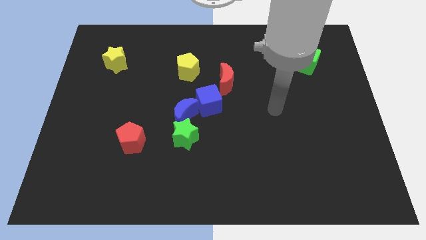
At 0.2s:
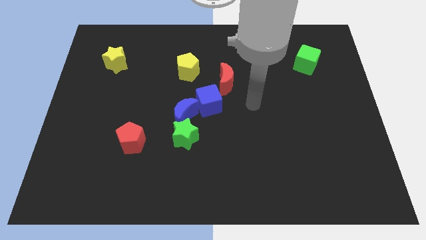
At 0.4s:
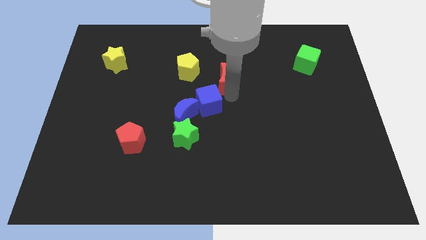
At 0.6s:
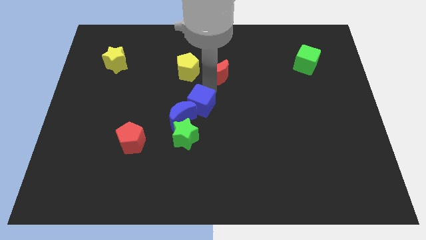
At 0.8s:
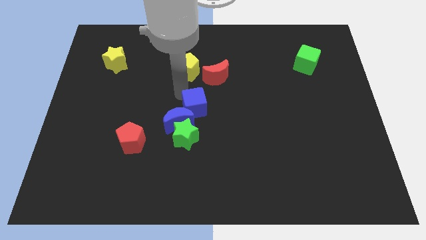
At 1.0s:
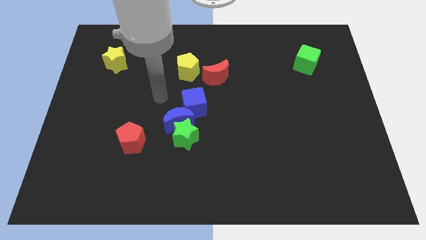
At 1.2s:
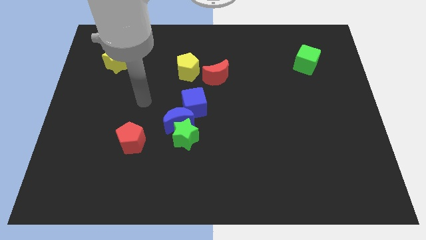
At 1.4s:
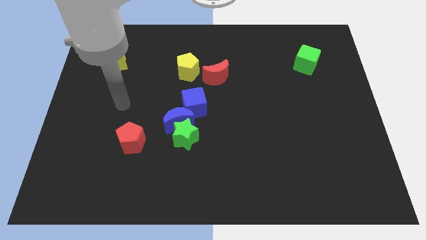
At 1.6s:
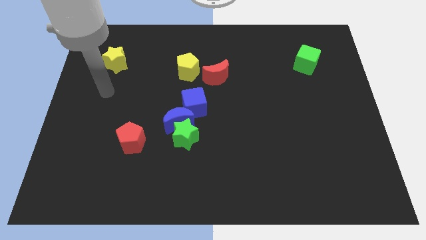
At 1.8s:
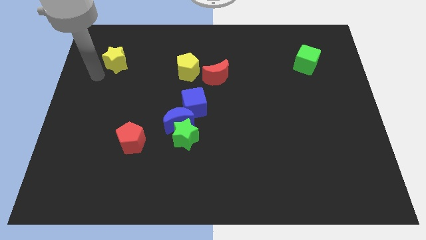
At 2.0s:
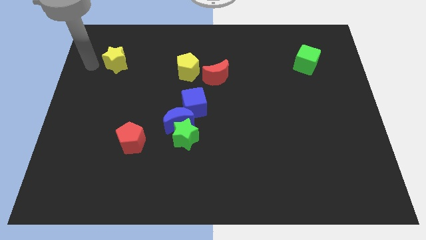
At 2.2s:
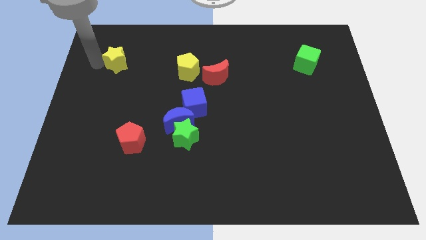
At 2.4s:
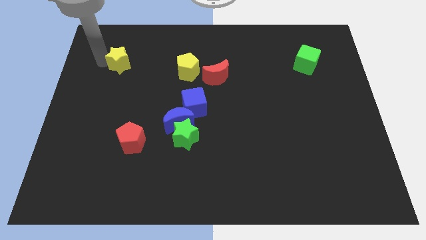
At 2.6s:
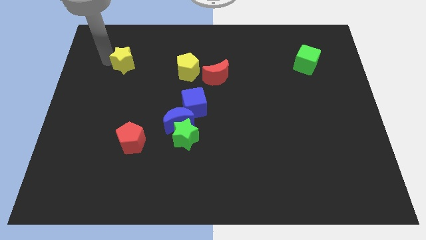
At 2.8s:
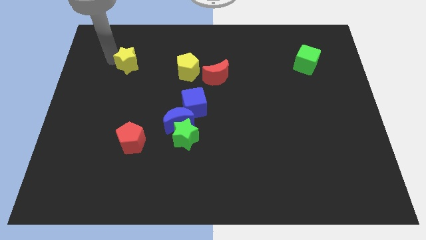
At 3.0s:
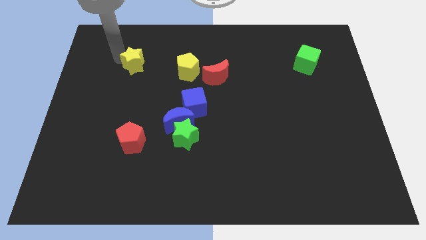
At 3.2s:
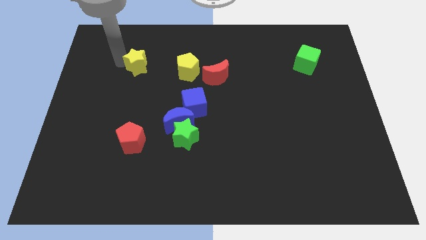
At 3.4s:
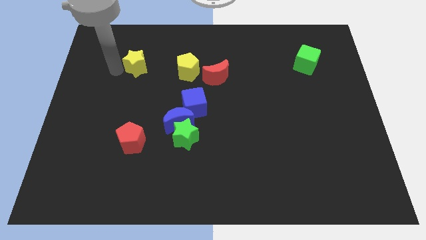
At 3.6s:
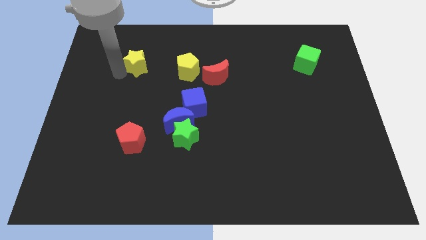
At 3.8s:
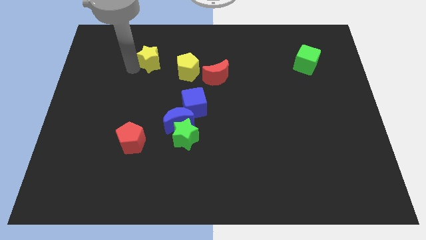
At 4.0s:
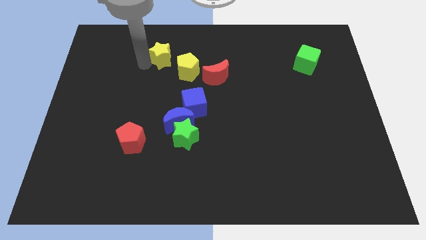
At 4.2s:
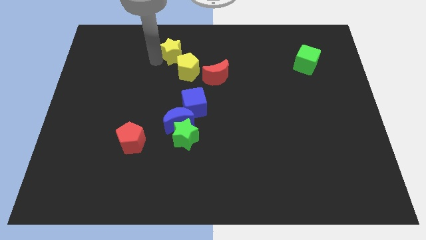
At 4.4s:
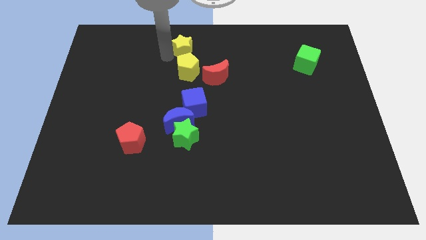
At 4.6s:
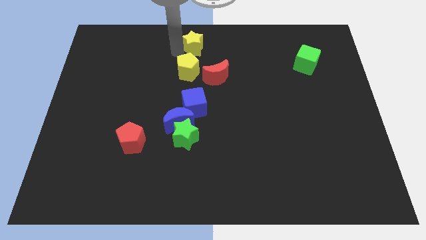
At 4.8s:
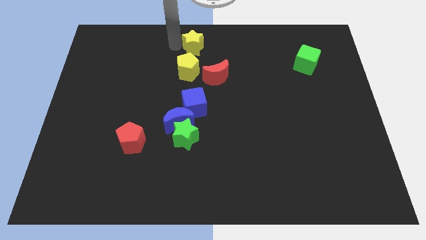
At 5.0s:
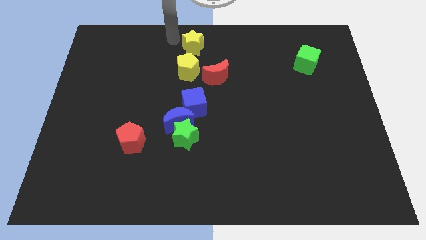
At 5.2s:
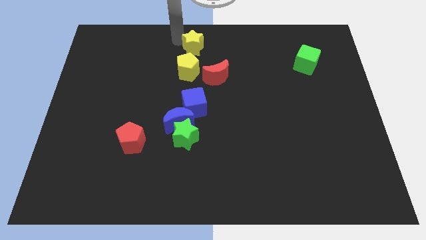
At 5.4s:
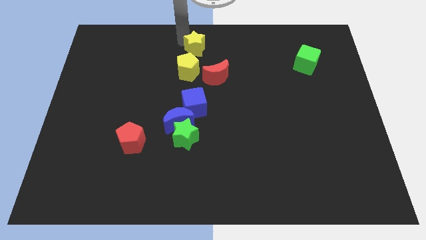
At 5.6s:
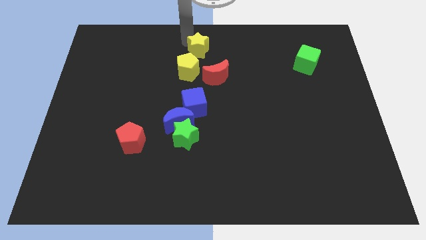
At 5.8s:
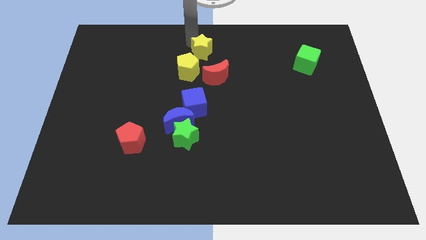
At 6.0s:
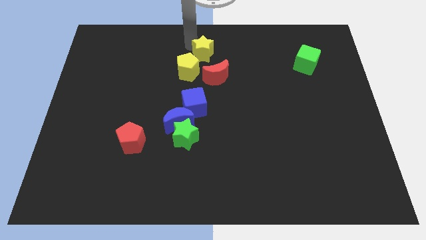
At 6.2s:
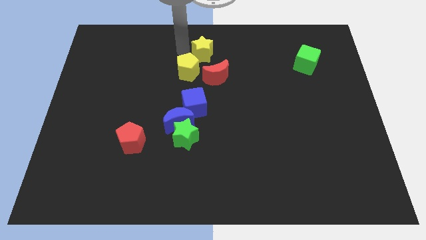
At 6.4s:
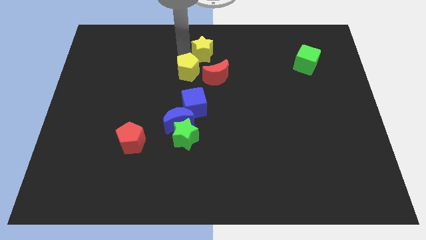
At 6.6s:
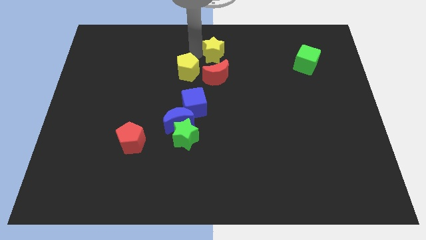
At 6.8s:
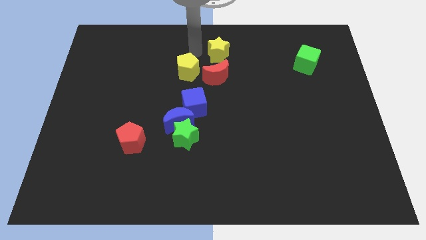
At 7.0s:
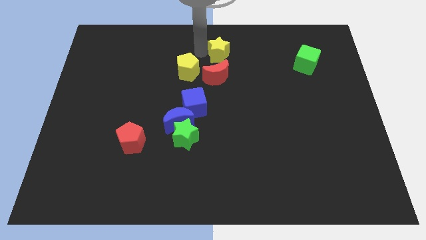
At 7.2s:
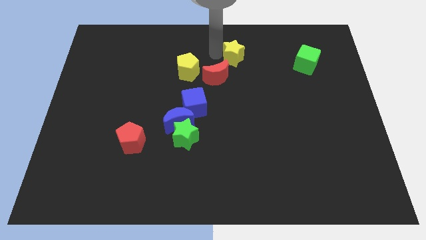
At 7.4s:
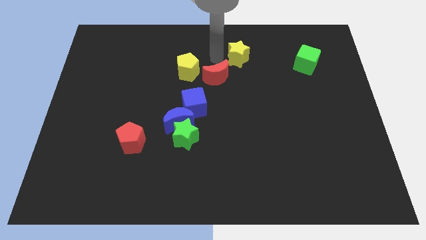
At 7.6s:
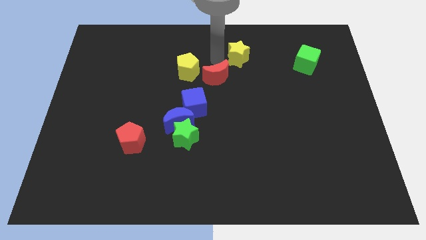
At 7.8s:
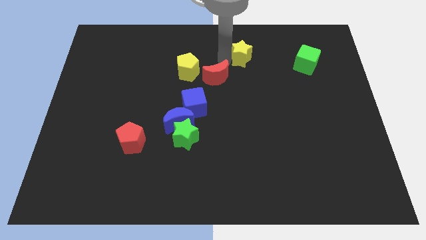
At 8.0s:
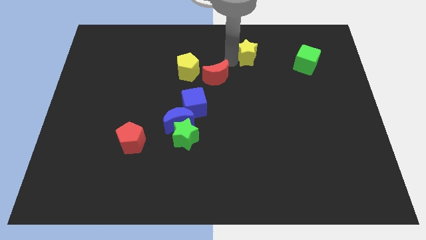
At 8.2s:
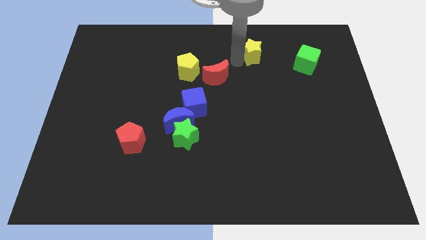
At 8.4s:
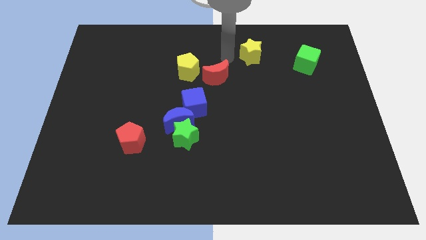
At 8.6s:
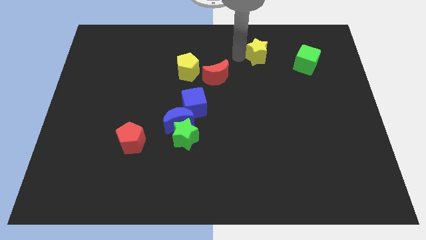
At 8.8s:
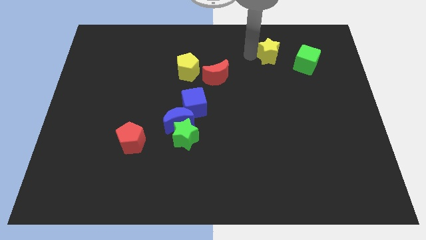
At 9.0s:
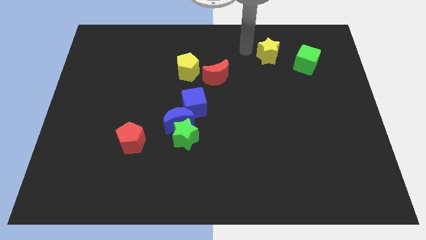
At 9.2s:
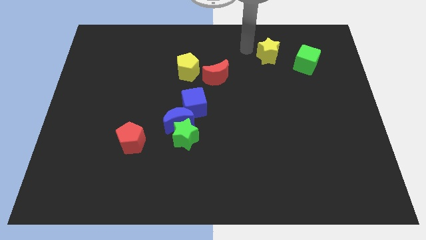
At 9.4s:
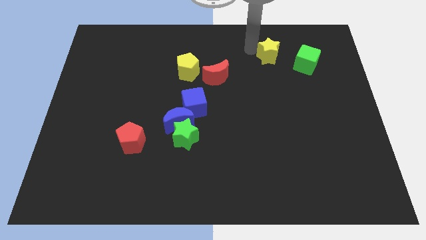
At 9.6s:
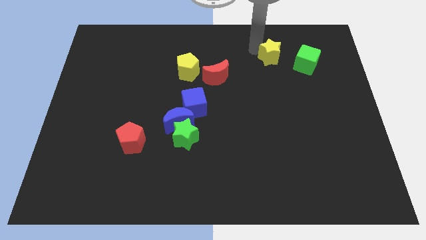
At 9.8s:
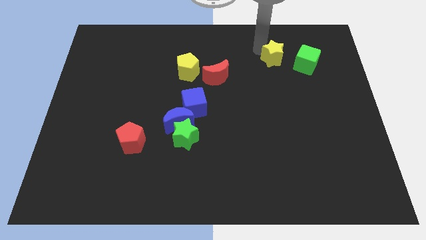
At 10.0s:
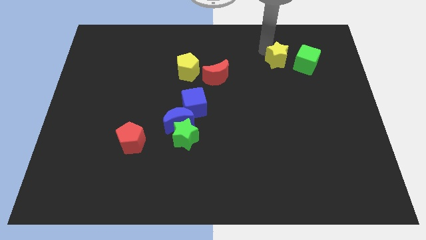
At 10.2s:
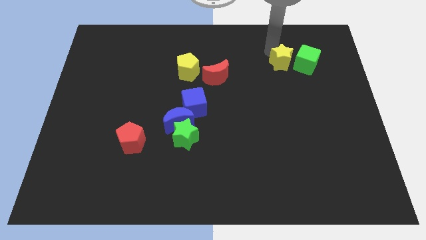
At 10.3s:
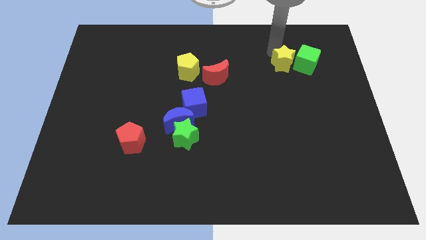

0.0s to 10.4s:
push the yellow star to the green cube

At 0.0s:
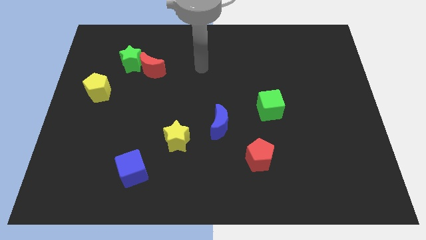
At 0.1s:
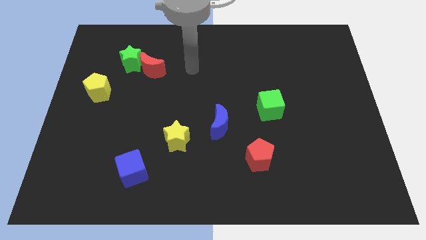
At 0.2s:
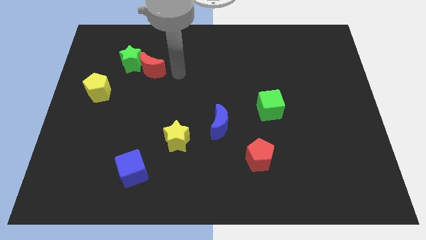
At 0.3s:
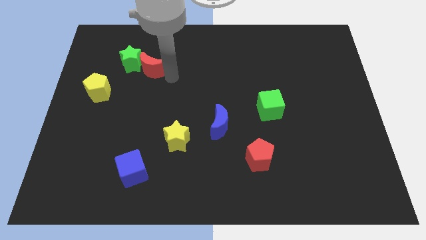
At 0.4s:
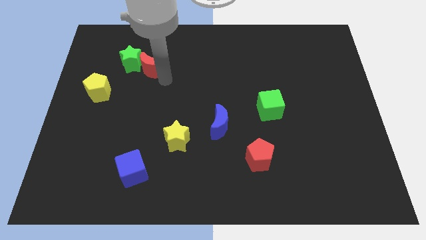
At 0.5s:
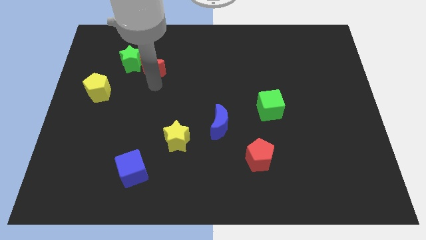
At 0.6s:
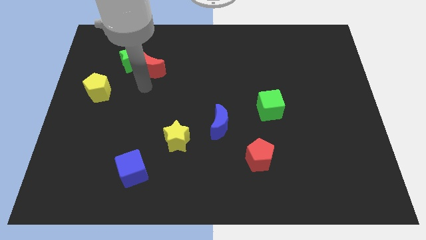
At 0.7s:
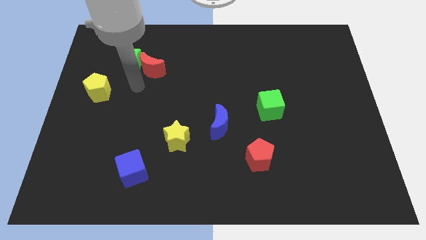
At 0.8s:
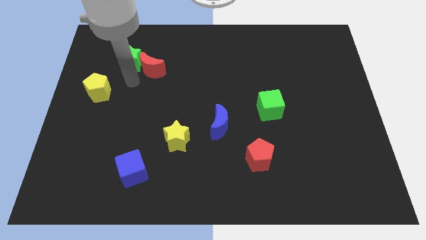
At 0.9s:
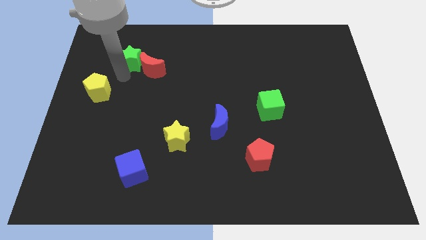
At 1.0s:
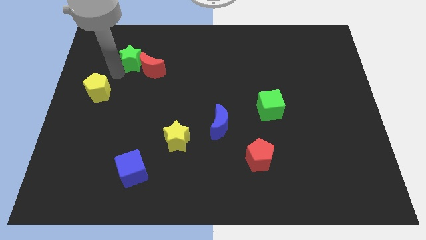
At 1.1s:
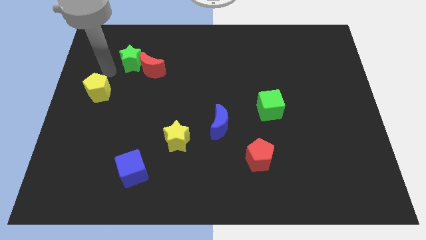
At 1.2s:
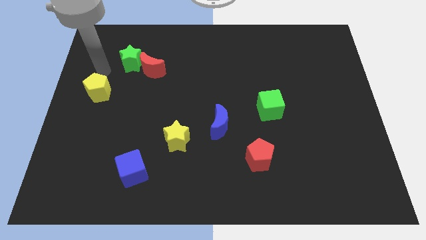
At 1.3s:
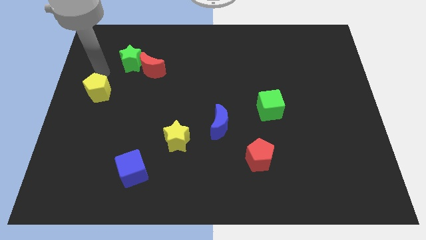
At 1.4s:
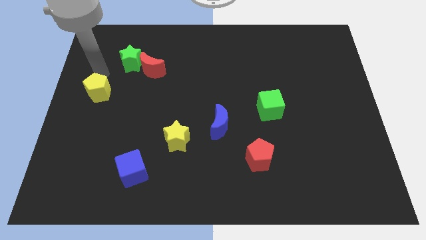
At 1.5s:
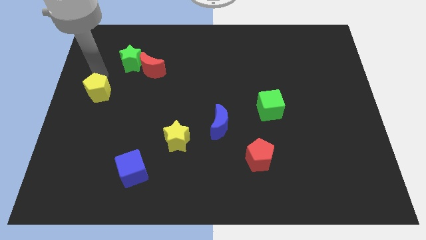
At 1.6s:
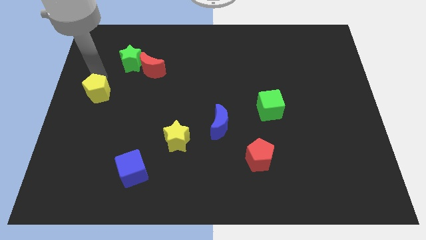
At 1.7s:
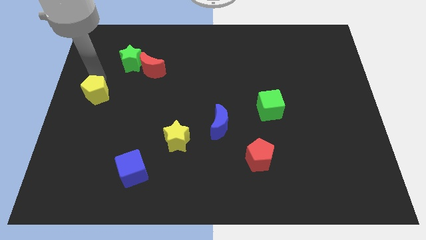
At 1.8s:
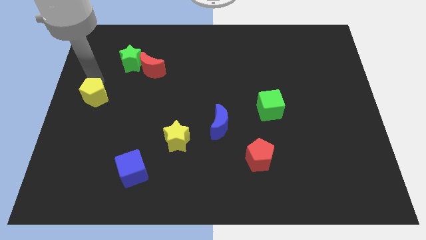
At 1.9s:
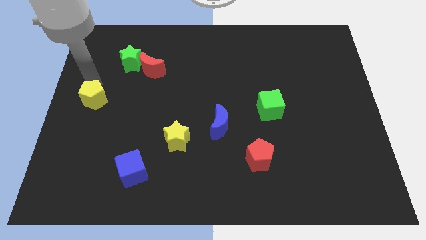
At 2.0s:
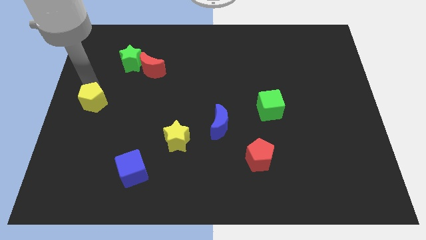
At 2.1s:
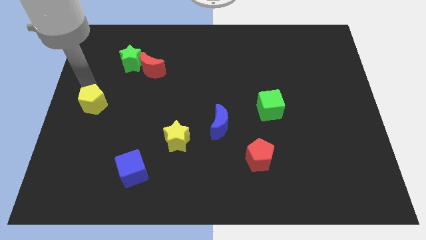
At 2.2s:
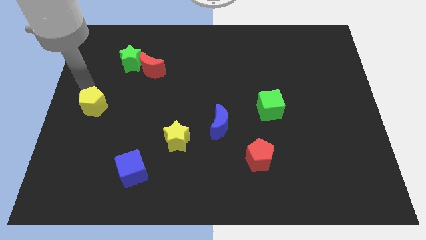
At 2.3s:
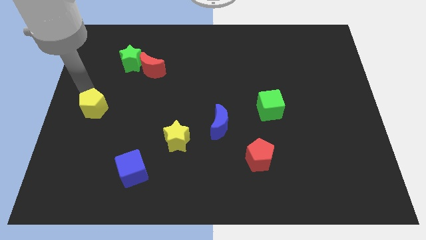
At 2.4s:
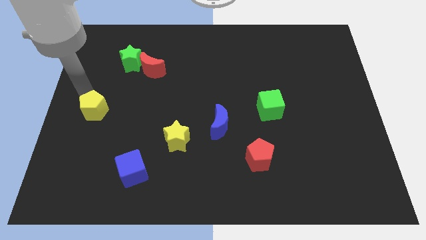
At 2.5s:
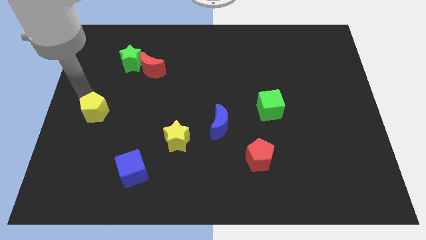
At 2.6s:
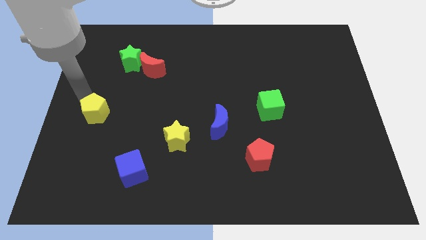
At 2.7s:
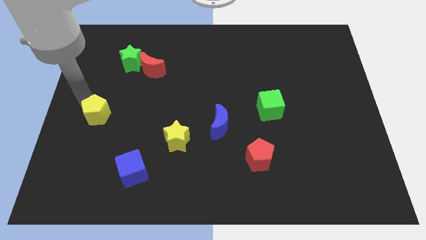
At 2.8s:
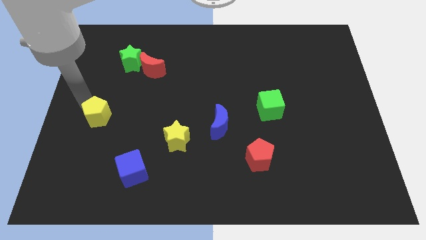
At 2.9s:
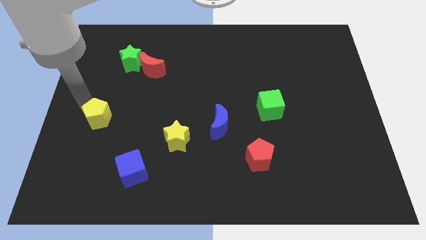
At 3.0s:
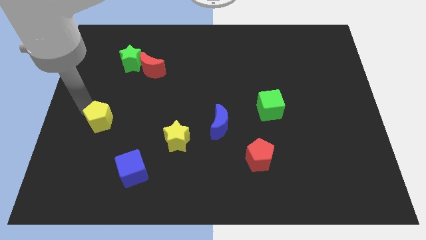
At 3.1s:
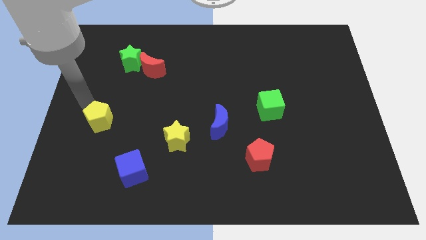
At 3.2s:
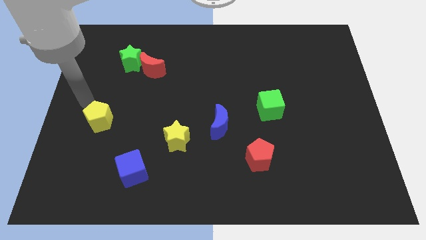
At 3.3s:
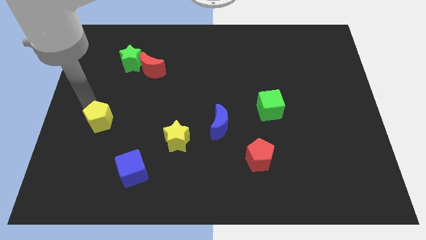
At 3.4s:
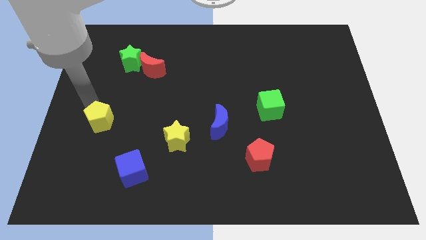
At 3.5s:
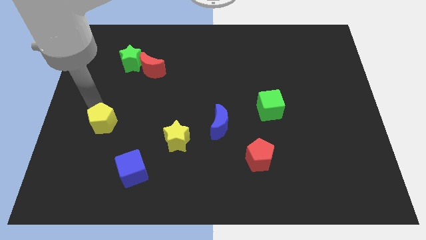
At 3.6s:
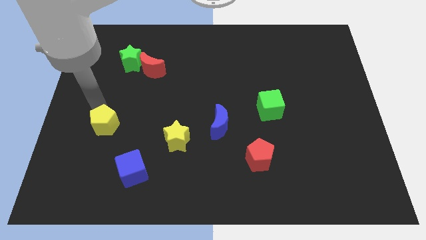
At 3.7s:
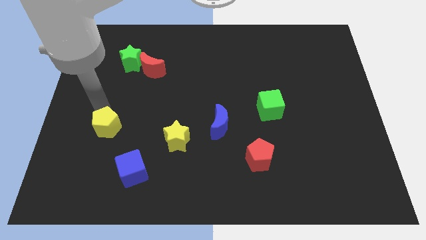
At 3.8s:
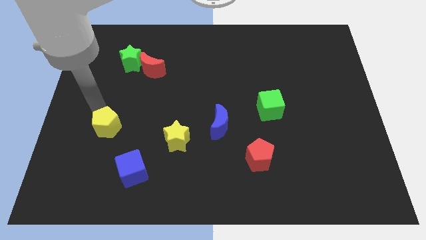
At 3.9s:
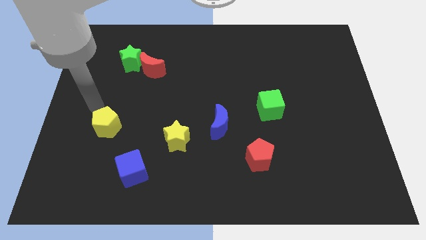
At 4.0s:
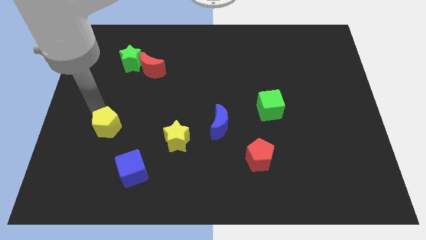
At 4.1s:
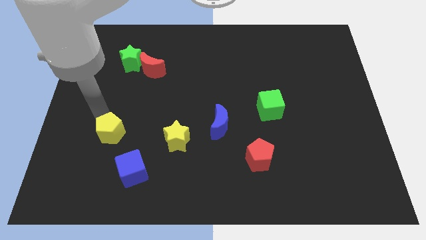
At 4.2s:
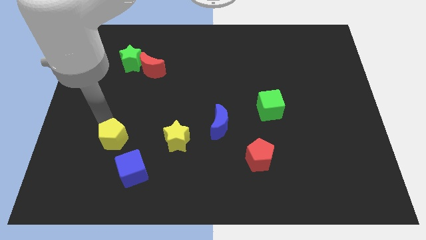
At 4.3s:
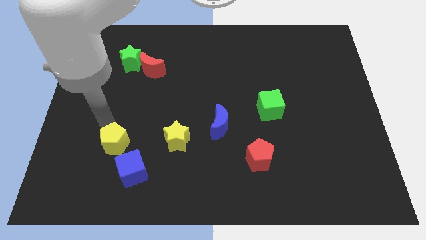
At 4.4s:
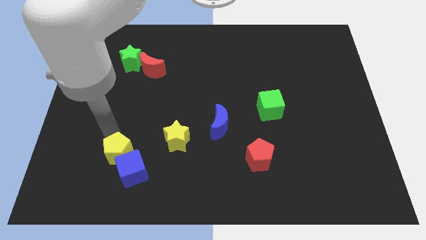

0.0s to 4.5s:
put the yellow pentagon towards the blue cube
